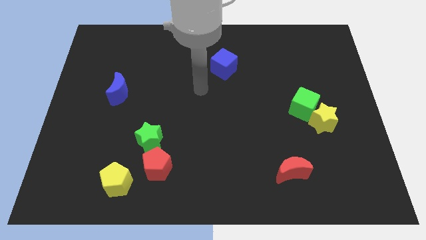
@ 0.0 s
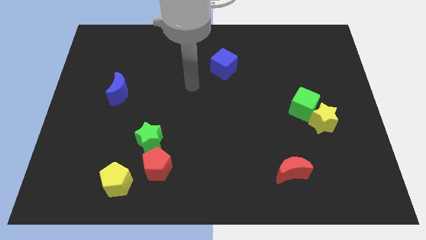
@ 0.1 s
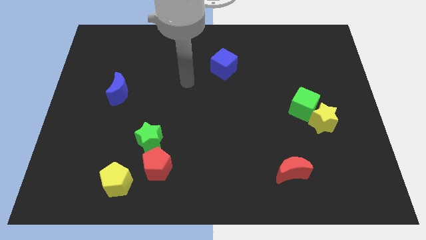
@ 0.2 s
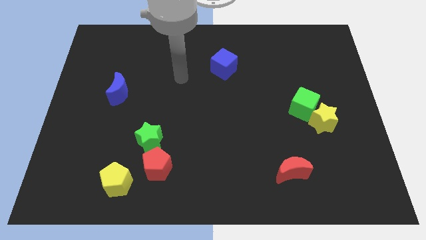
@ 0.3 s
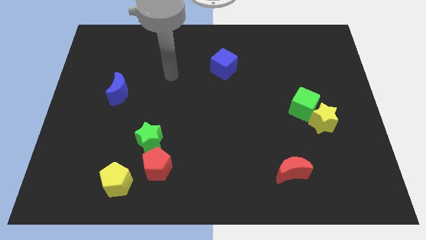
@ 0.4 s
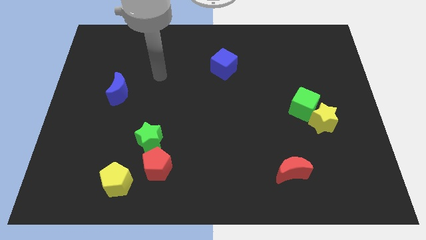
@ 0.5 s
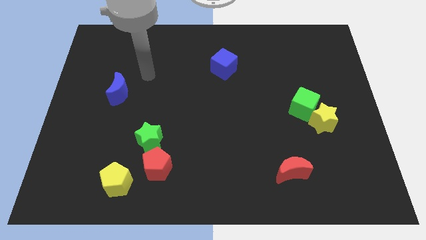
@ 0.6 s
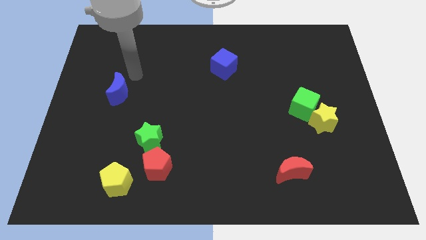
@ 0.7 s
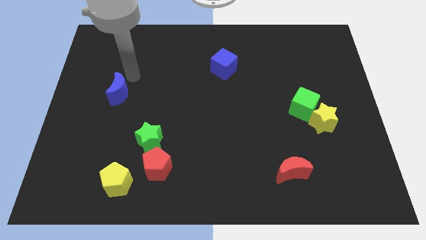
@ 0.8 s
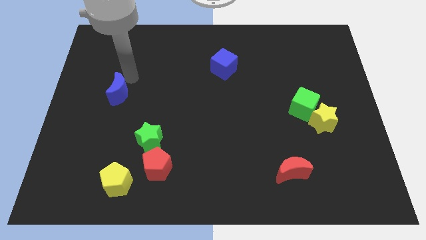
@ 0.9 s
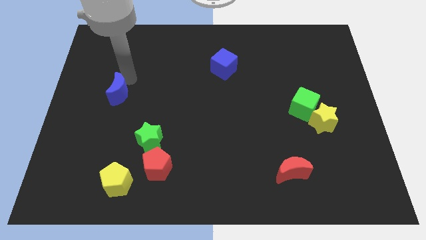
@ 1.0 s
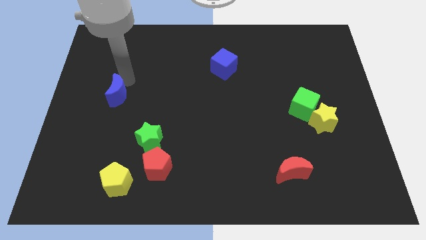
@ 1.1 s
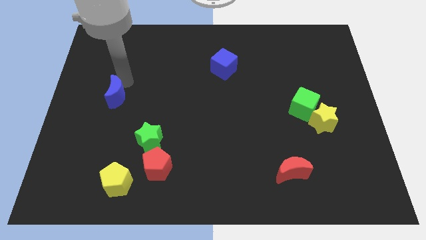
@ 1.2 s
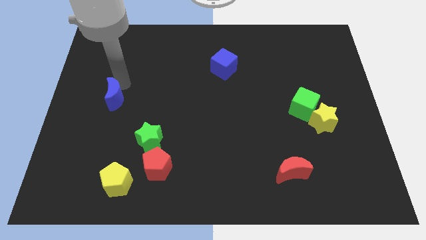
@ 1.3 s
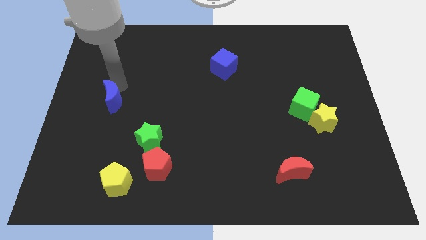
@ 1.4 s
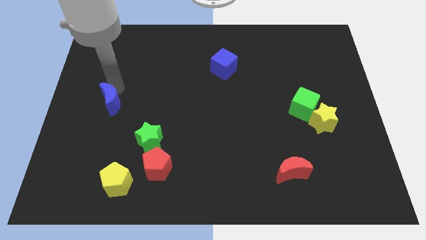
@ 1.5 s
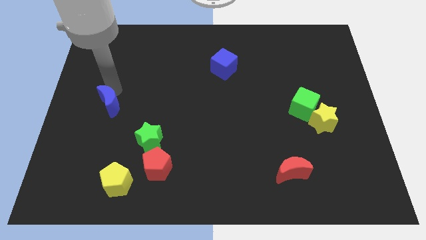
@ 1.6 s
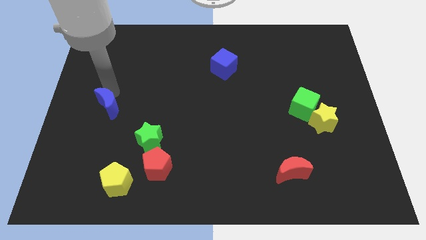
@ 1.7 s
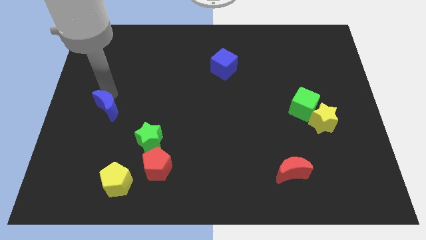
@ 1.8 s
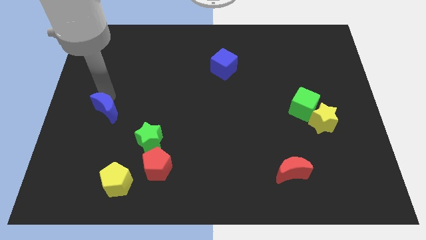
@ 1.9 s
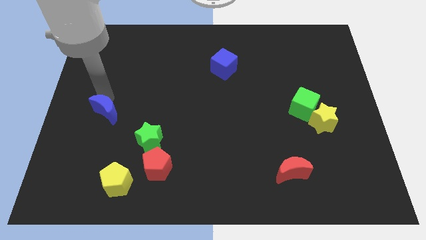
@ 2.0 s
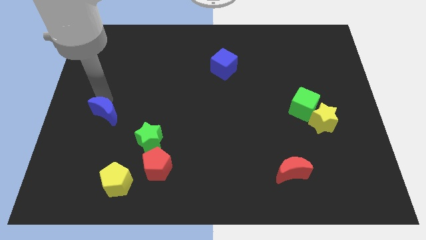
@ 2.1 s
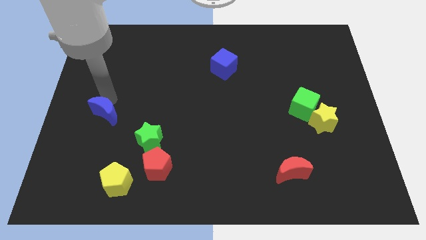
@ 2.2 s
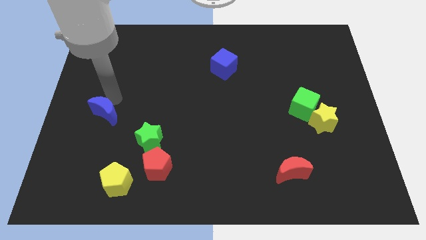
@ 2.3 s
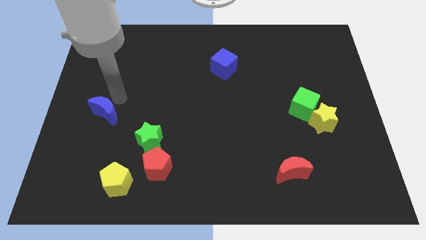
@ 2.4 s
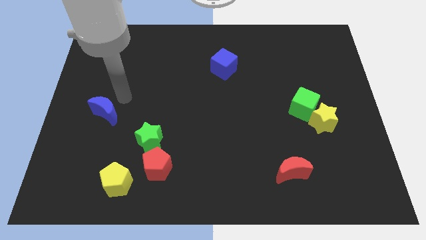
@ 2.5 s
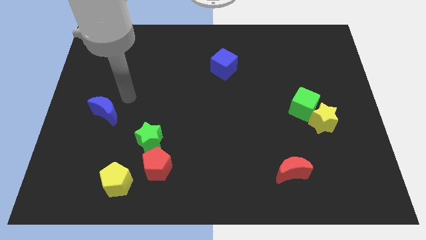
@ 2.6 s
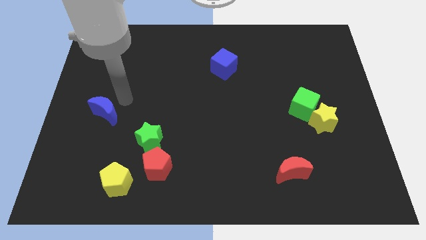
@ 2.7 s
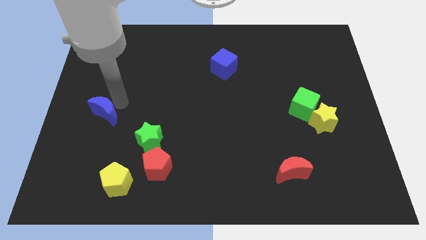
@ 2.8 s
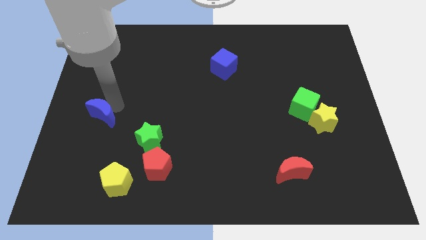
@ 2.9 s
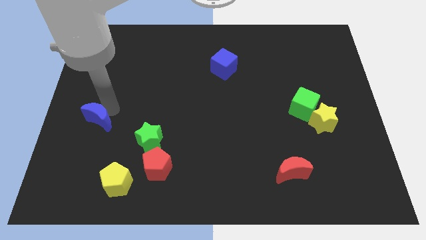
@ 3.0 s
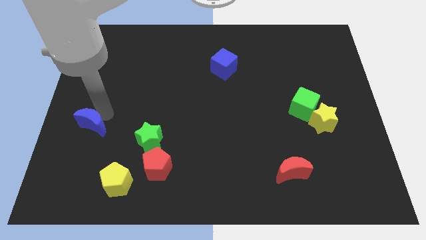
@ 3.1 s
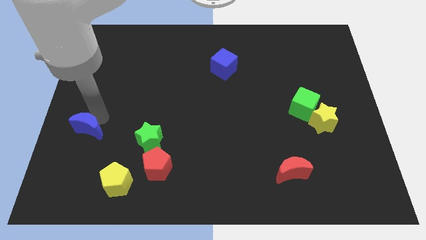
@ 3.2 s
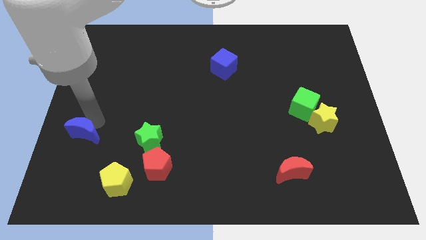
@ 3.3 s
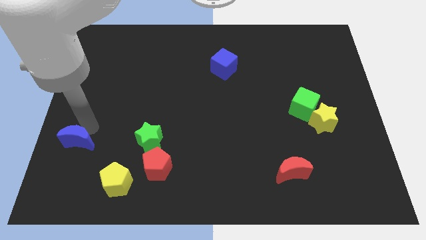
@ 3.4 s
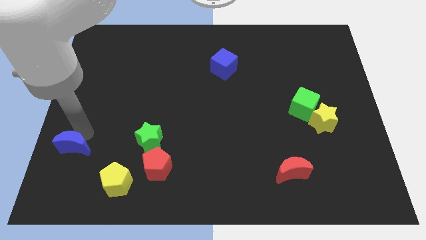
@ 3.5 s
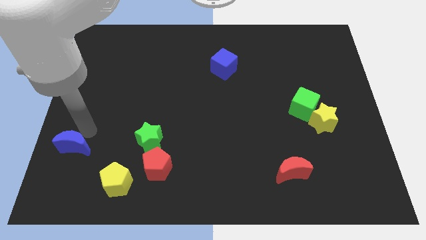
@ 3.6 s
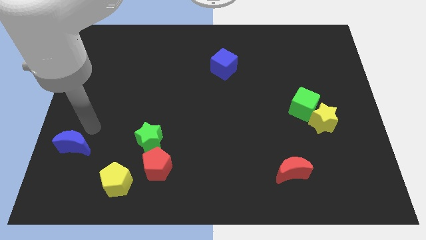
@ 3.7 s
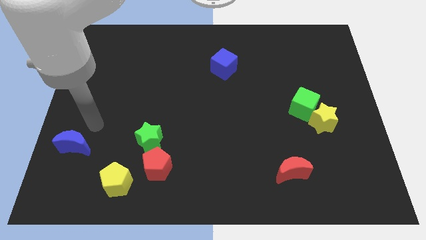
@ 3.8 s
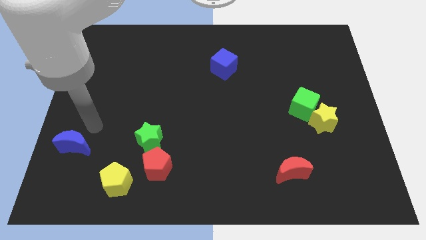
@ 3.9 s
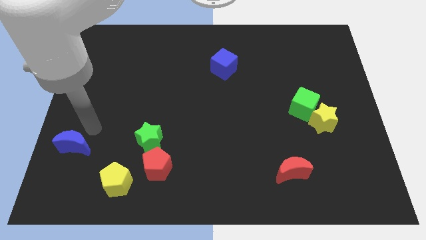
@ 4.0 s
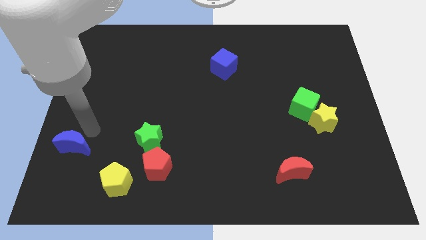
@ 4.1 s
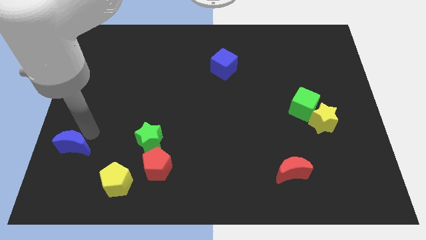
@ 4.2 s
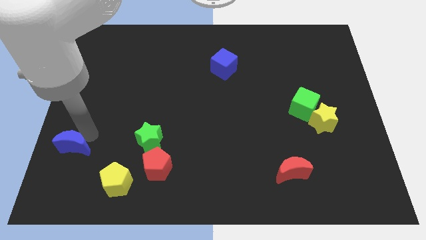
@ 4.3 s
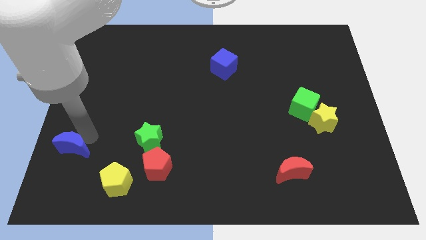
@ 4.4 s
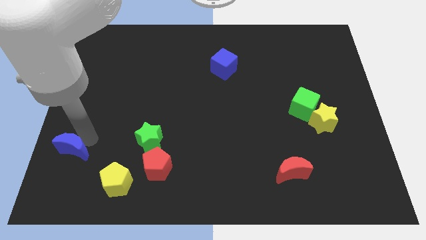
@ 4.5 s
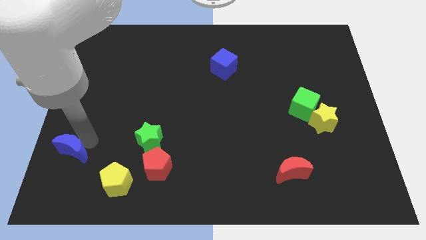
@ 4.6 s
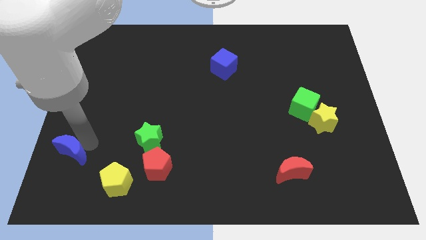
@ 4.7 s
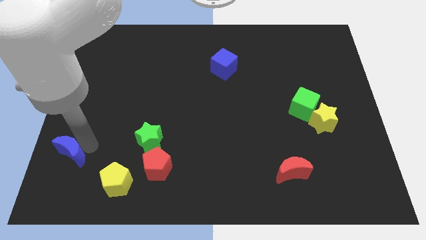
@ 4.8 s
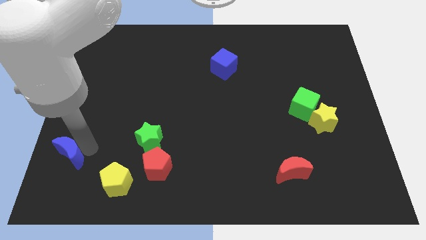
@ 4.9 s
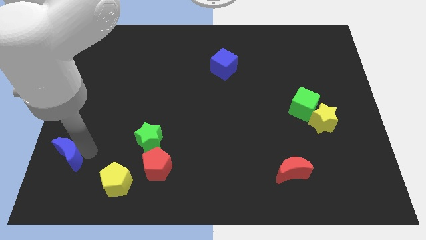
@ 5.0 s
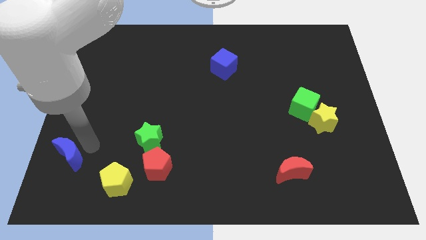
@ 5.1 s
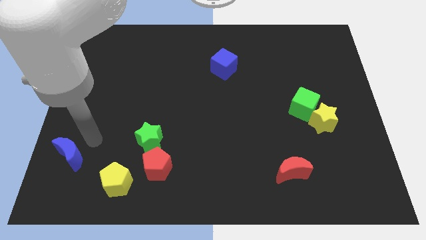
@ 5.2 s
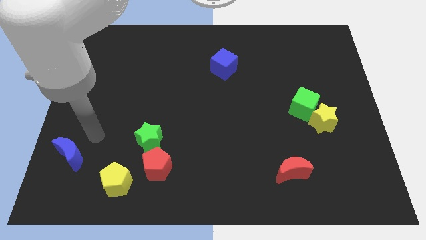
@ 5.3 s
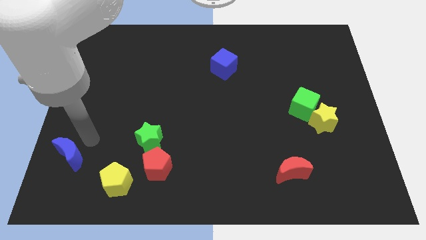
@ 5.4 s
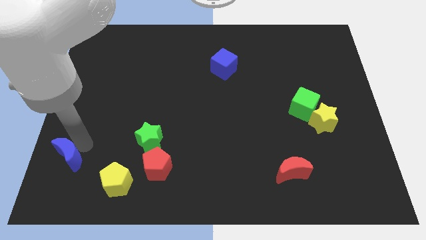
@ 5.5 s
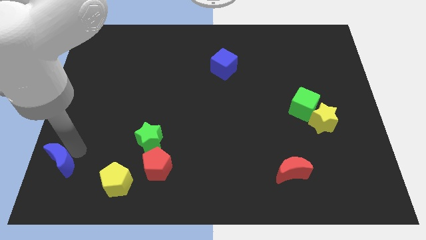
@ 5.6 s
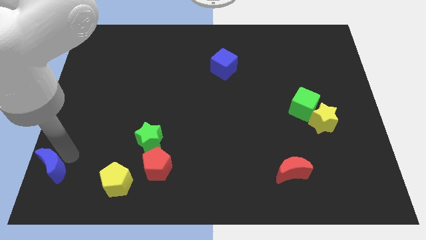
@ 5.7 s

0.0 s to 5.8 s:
put the blue moon to the bottom left corner

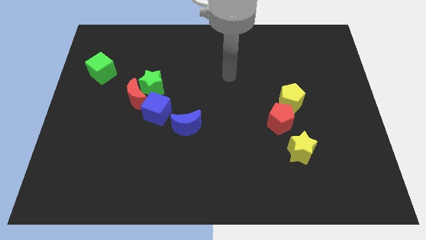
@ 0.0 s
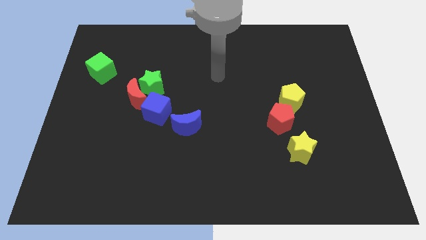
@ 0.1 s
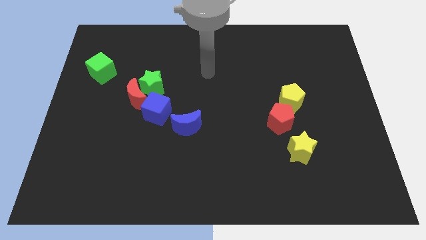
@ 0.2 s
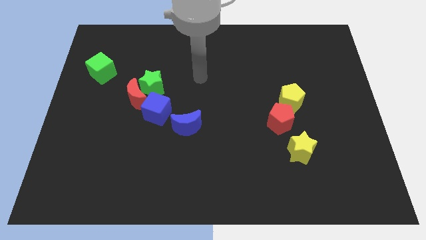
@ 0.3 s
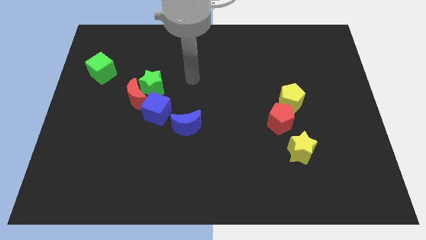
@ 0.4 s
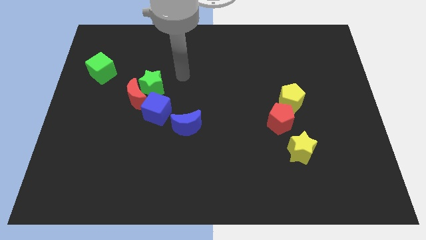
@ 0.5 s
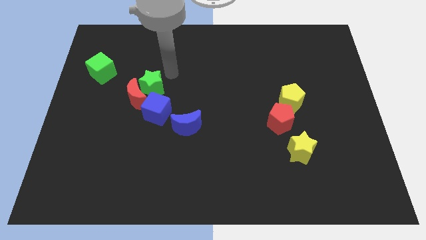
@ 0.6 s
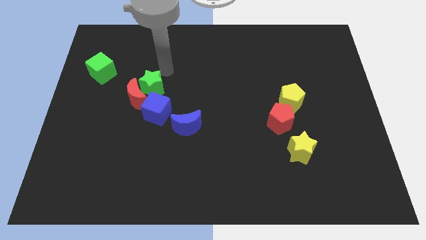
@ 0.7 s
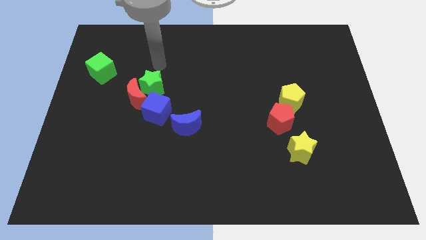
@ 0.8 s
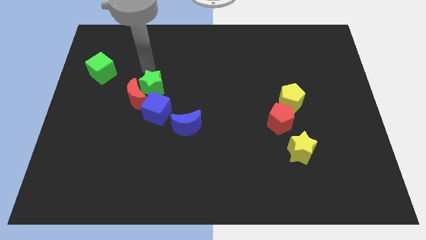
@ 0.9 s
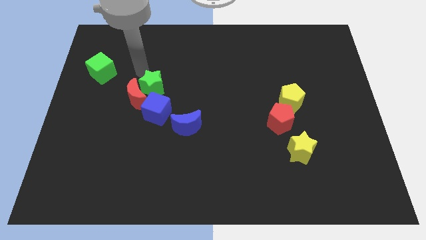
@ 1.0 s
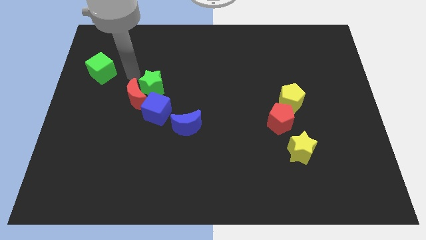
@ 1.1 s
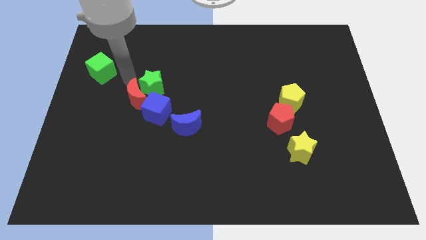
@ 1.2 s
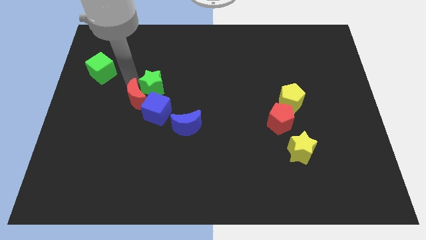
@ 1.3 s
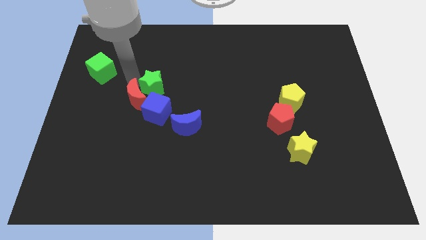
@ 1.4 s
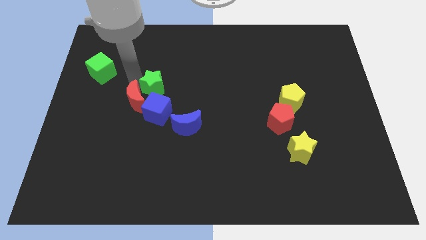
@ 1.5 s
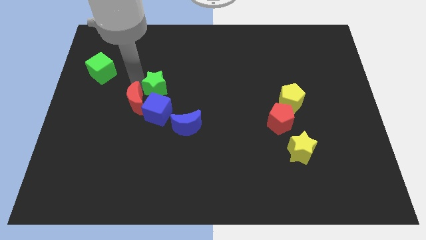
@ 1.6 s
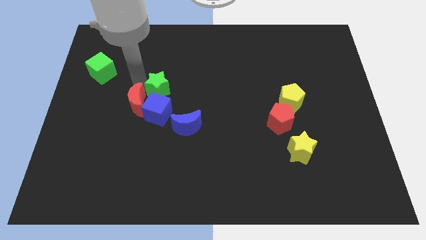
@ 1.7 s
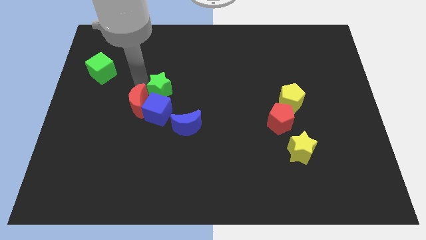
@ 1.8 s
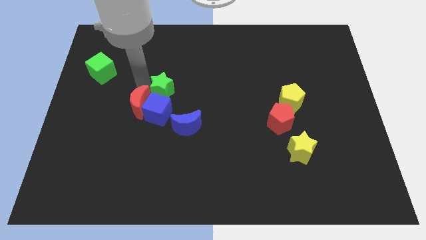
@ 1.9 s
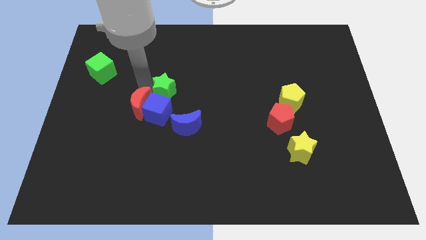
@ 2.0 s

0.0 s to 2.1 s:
move the green star to the center
